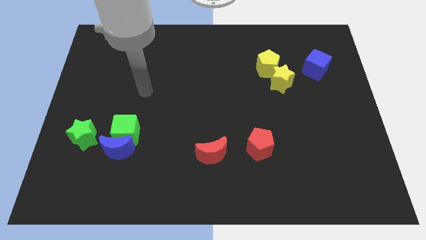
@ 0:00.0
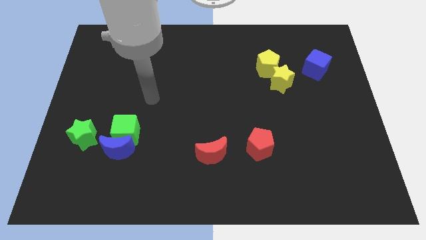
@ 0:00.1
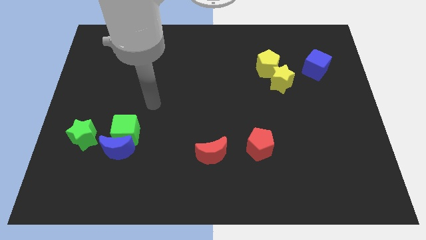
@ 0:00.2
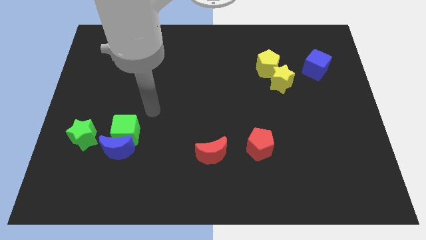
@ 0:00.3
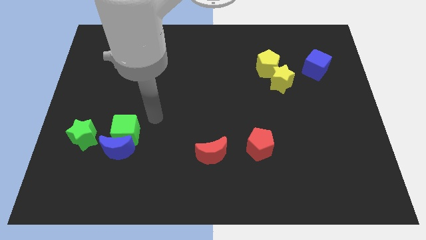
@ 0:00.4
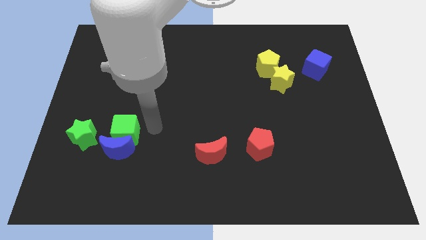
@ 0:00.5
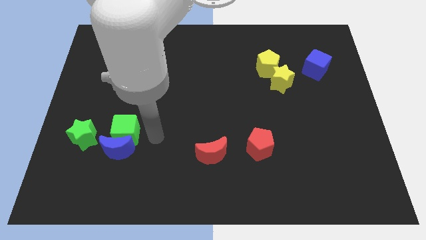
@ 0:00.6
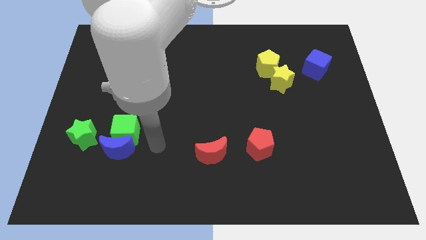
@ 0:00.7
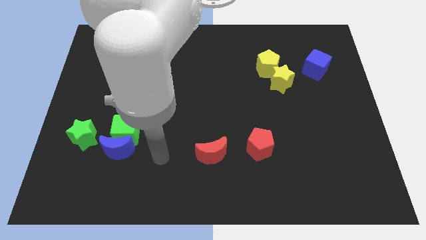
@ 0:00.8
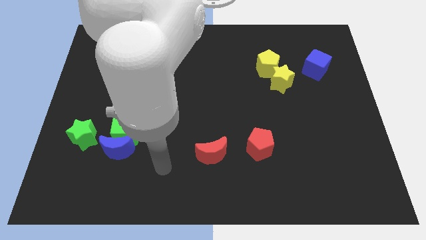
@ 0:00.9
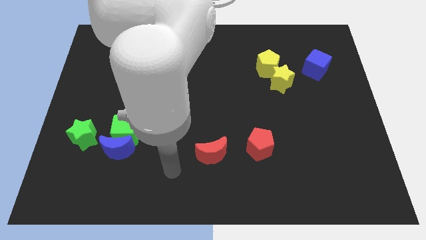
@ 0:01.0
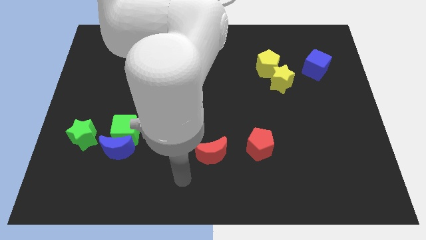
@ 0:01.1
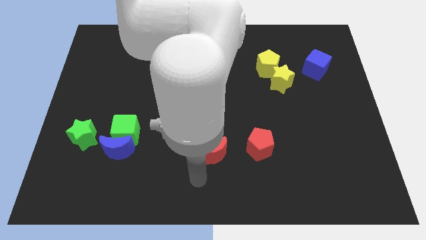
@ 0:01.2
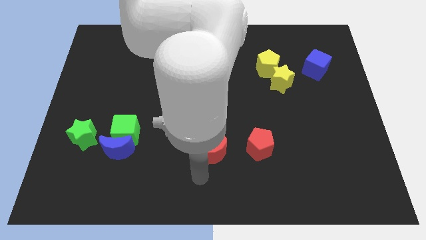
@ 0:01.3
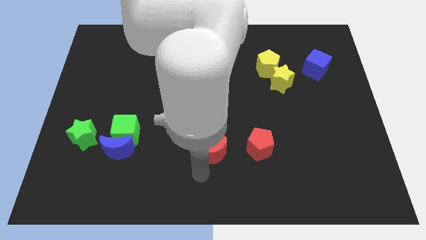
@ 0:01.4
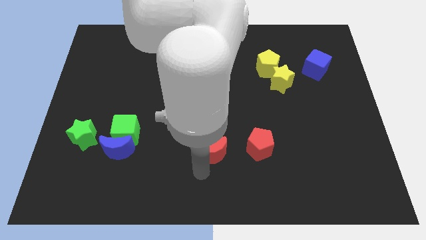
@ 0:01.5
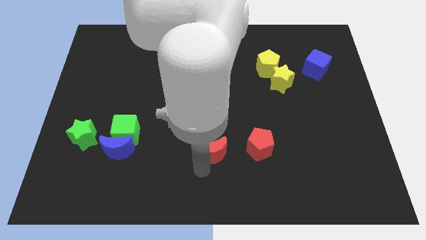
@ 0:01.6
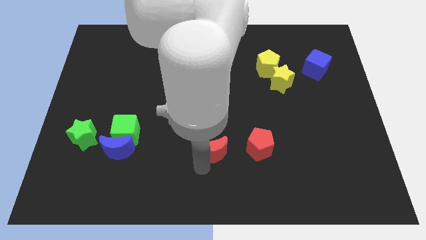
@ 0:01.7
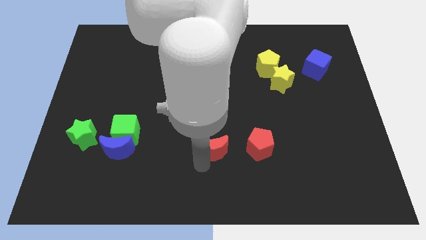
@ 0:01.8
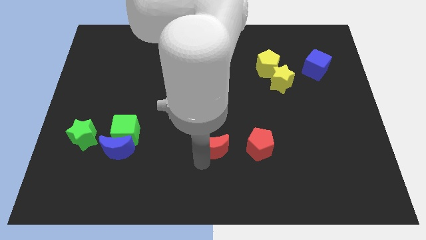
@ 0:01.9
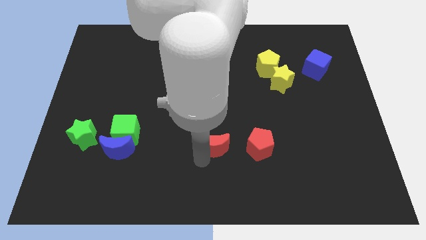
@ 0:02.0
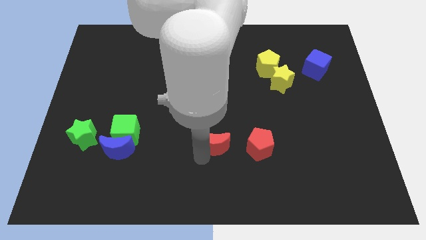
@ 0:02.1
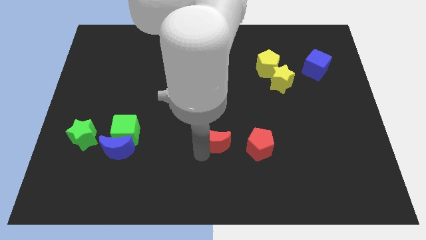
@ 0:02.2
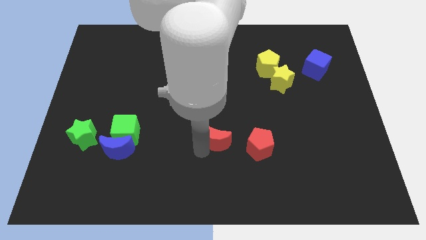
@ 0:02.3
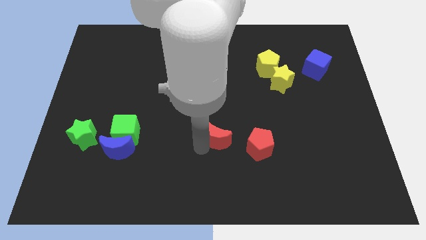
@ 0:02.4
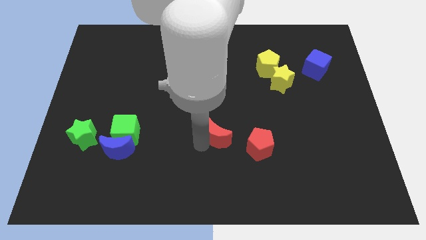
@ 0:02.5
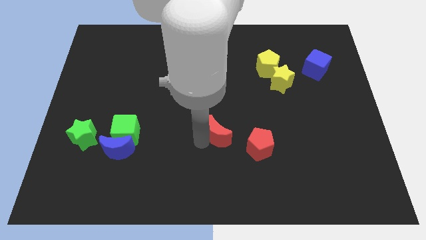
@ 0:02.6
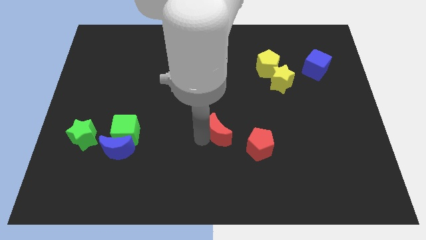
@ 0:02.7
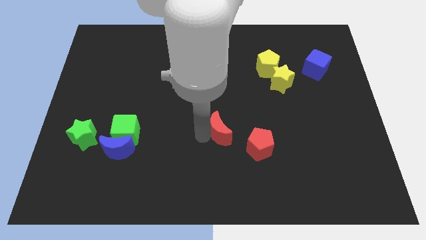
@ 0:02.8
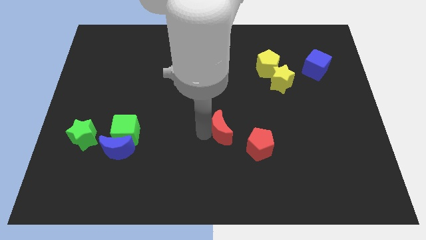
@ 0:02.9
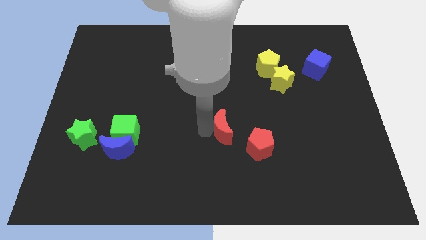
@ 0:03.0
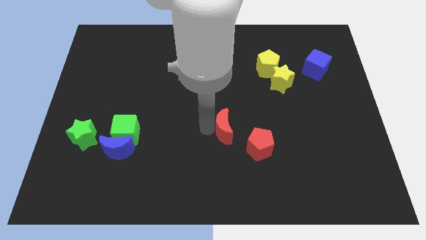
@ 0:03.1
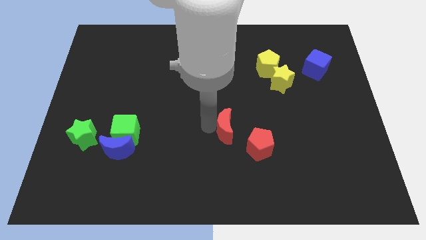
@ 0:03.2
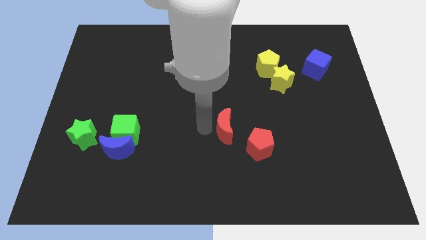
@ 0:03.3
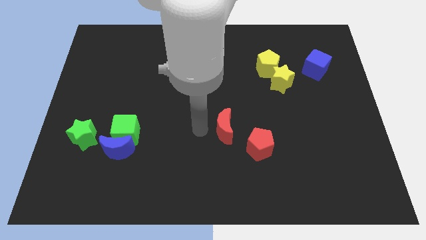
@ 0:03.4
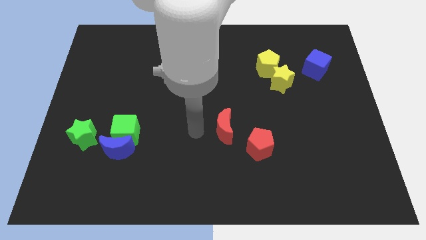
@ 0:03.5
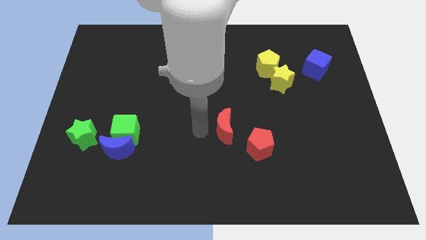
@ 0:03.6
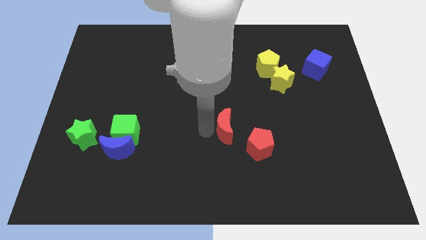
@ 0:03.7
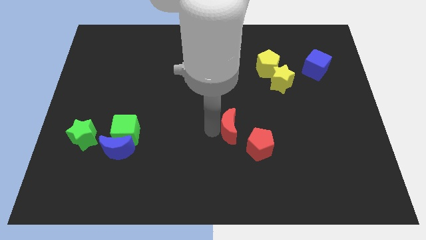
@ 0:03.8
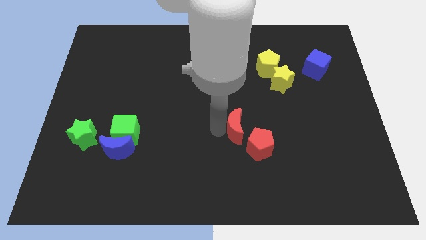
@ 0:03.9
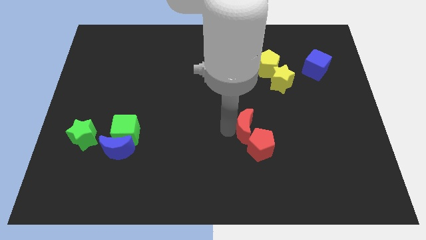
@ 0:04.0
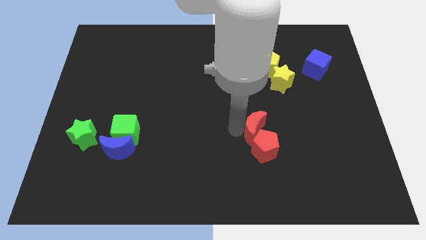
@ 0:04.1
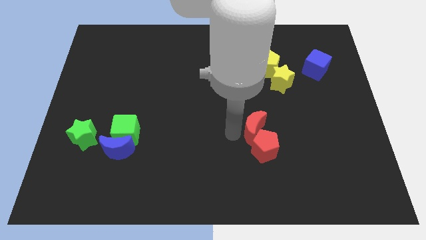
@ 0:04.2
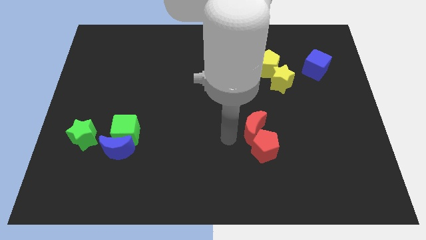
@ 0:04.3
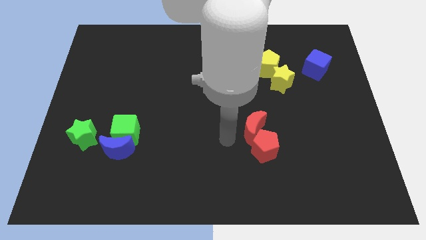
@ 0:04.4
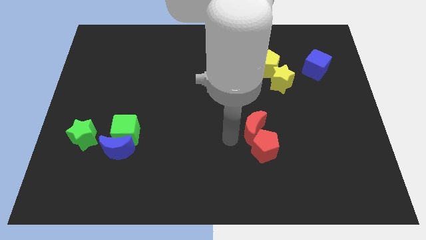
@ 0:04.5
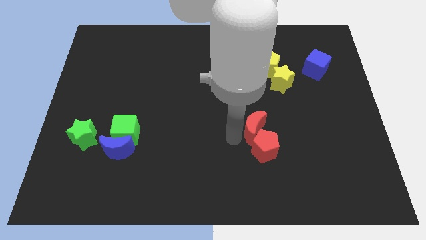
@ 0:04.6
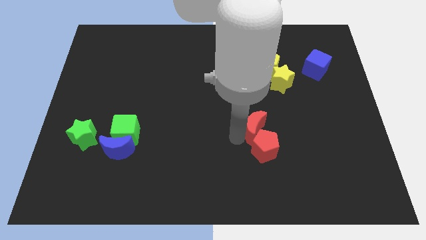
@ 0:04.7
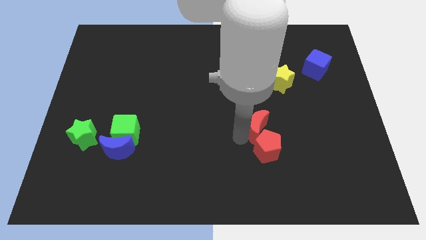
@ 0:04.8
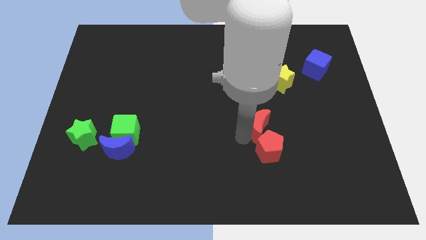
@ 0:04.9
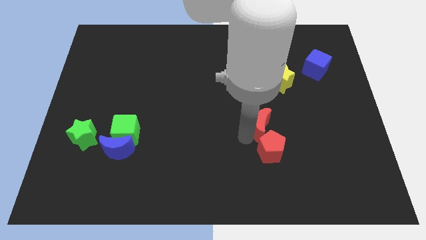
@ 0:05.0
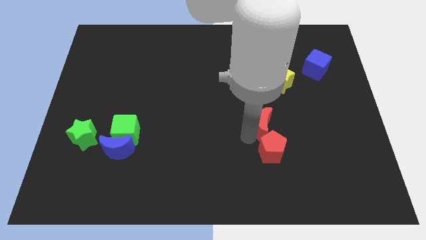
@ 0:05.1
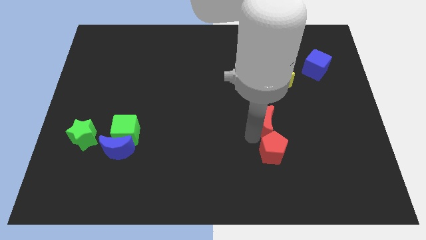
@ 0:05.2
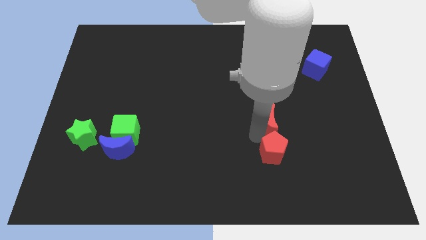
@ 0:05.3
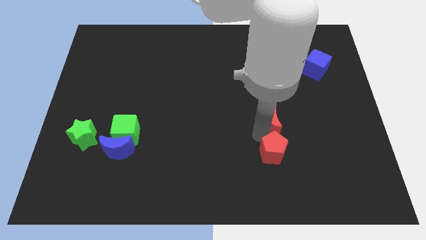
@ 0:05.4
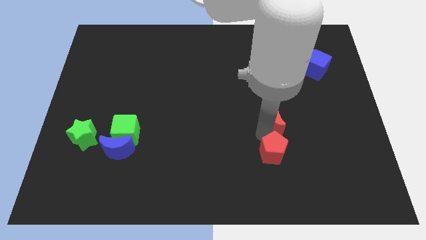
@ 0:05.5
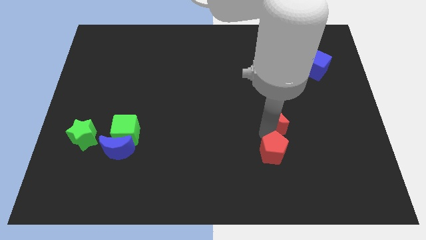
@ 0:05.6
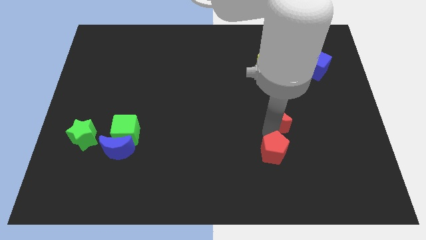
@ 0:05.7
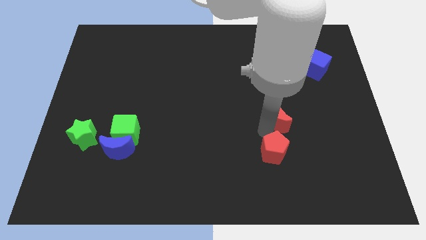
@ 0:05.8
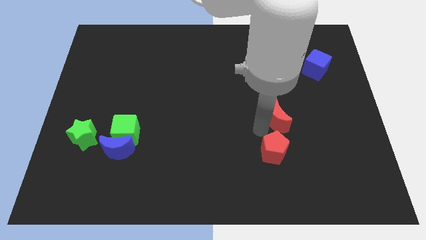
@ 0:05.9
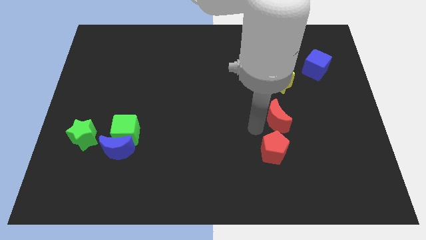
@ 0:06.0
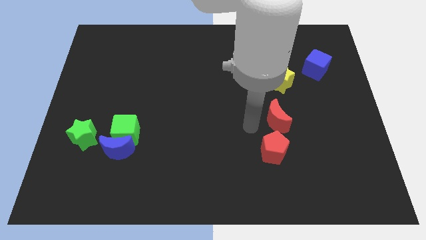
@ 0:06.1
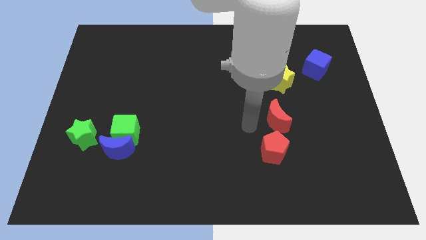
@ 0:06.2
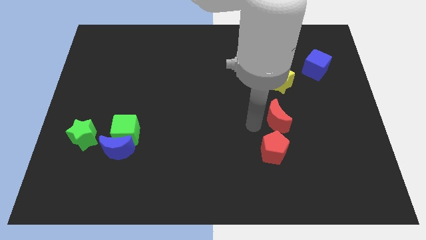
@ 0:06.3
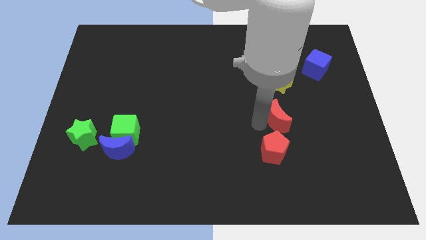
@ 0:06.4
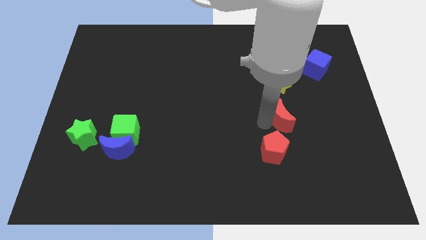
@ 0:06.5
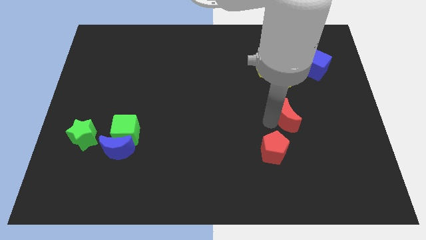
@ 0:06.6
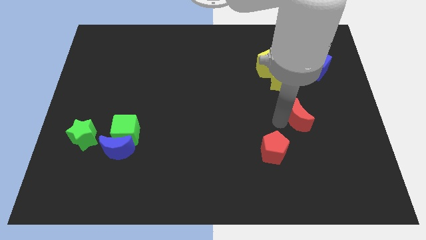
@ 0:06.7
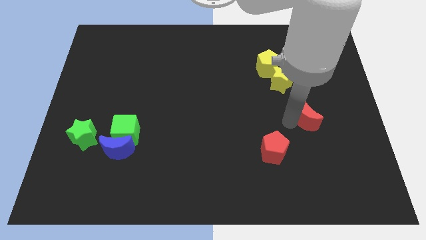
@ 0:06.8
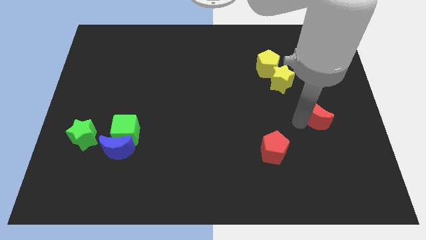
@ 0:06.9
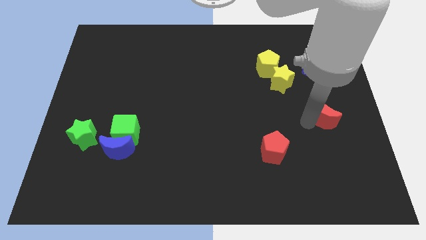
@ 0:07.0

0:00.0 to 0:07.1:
push the red moon below the blue cube
